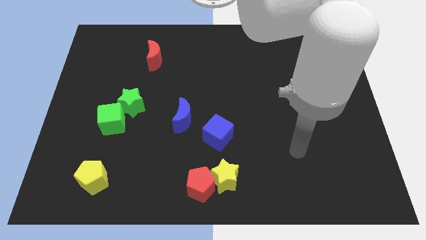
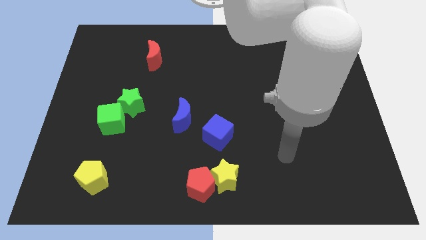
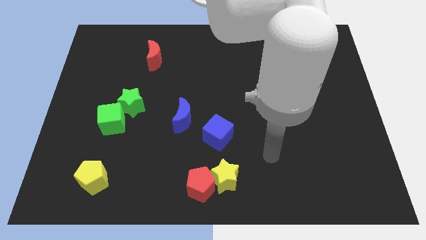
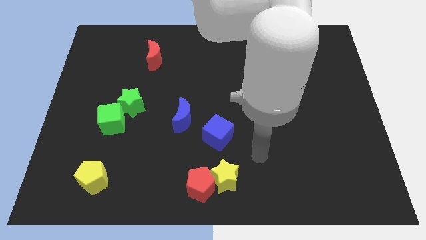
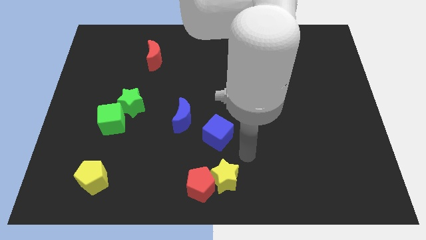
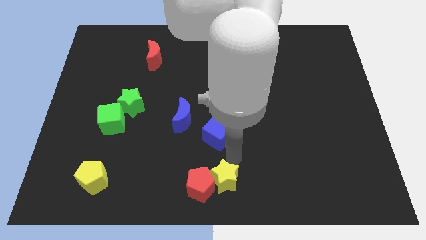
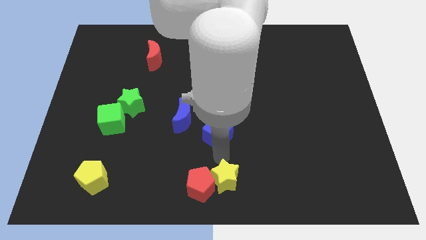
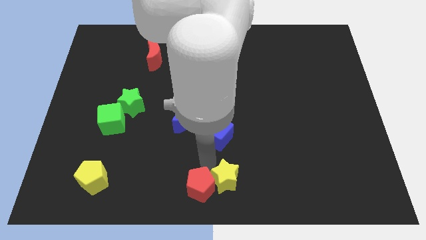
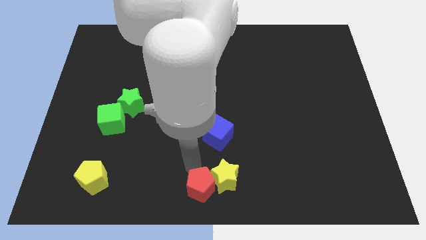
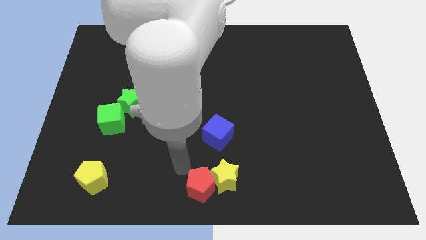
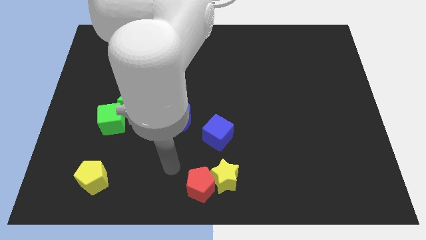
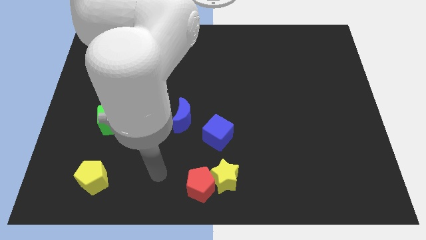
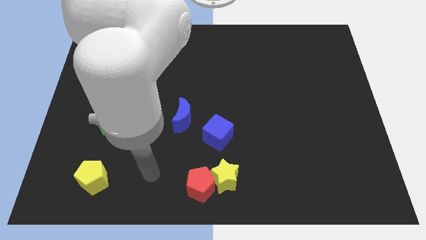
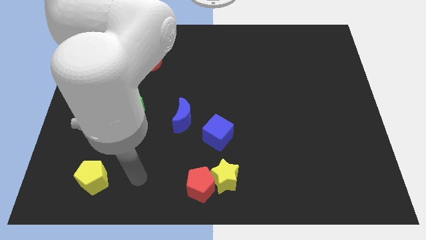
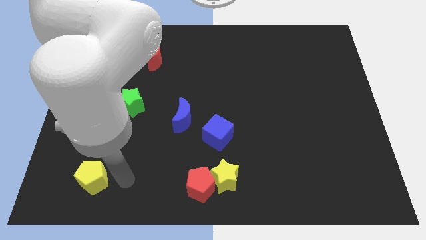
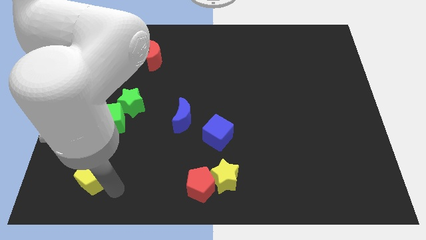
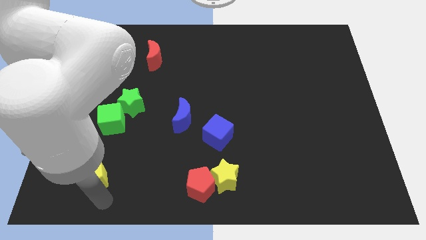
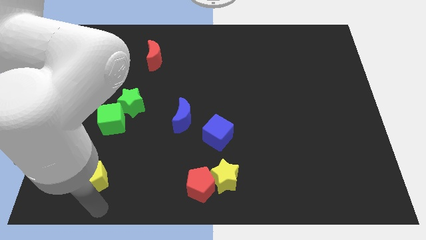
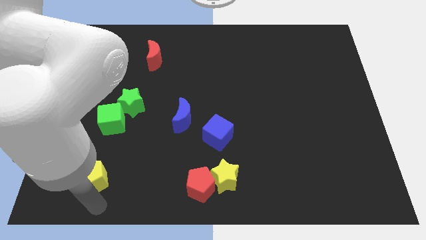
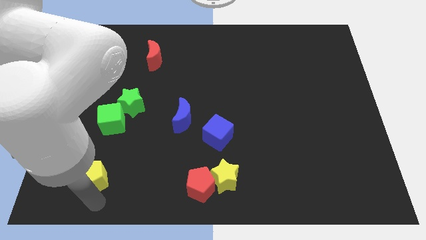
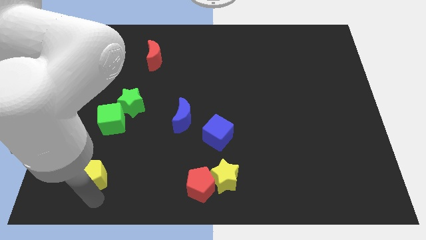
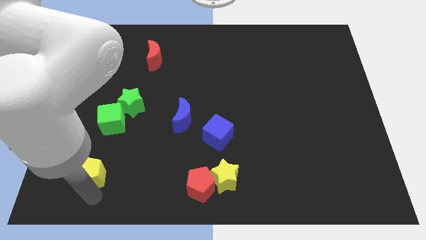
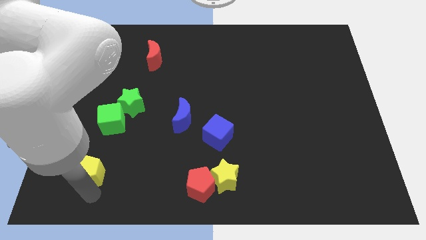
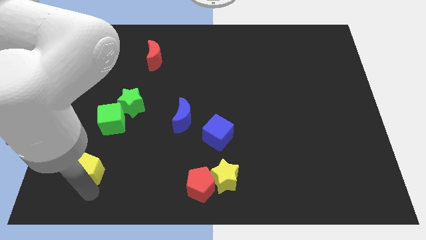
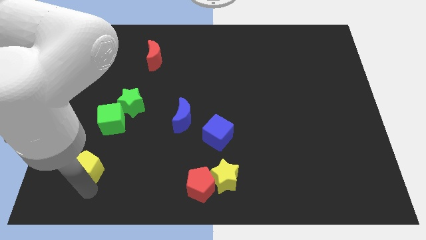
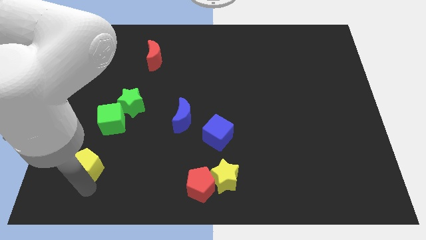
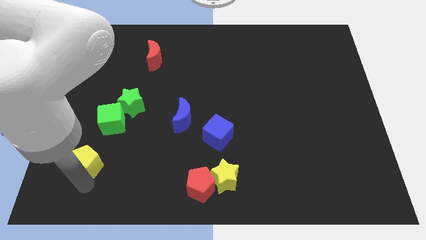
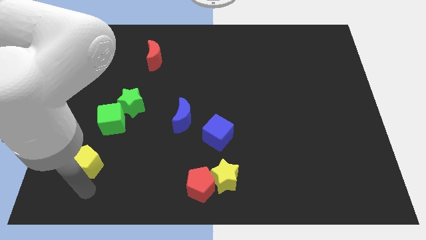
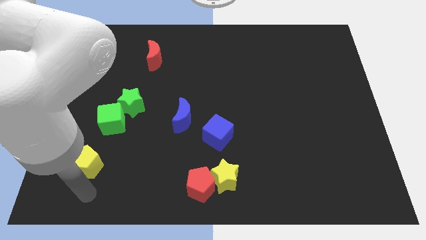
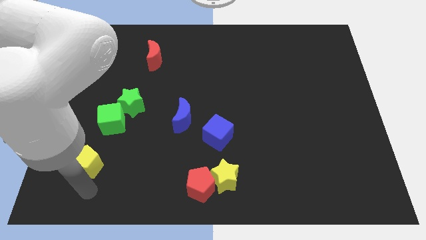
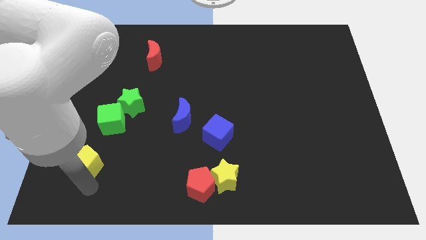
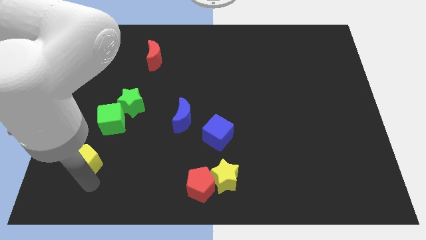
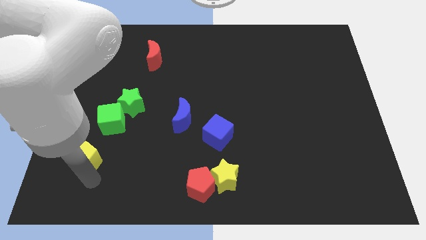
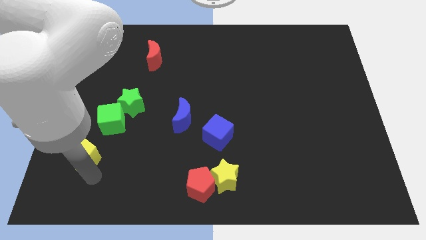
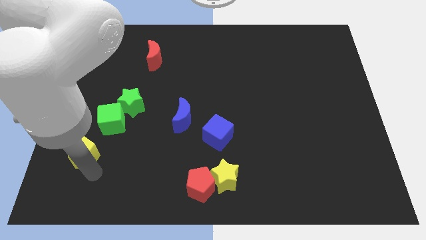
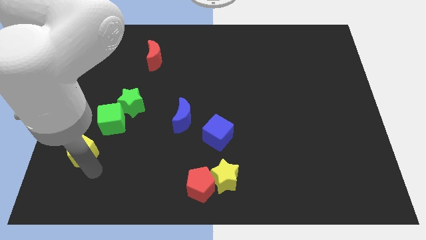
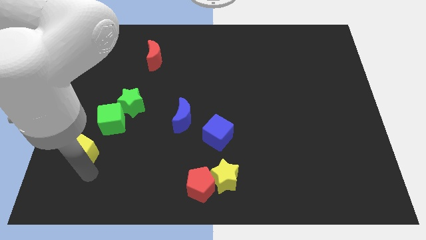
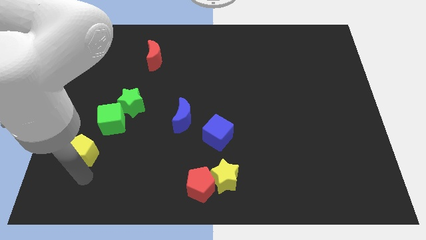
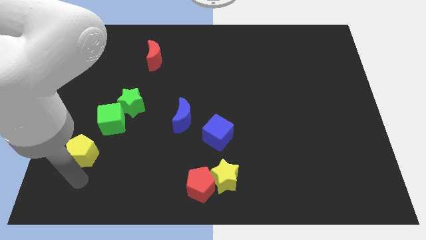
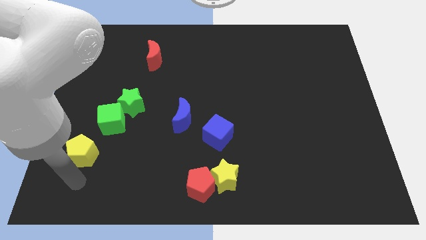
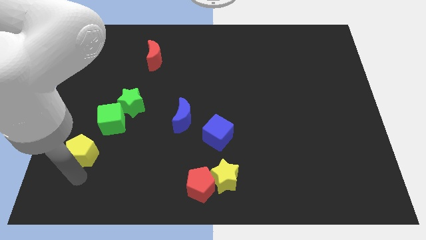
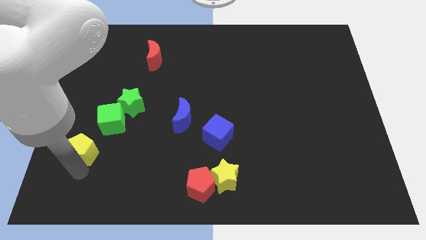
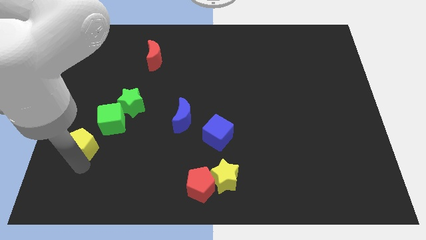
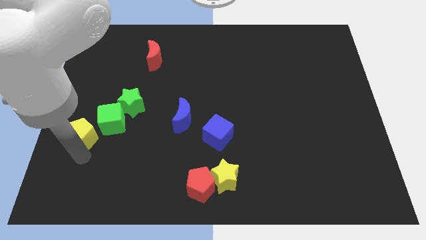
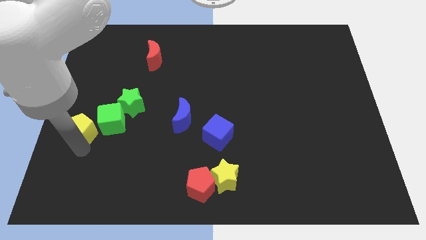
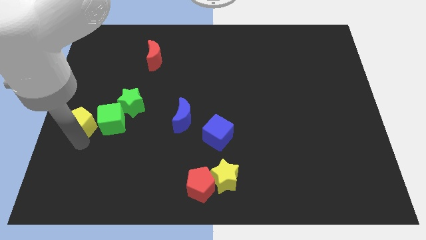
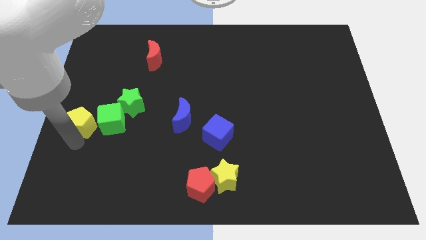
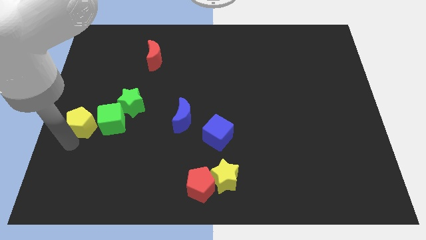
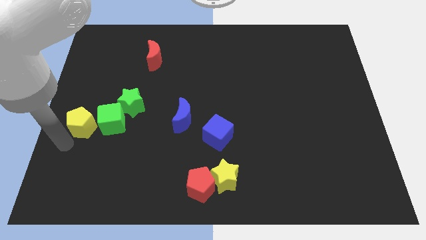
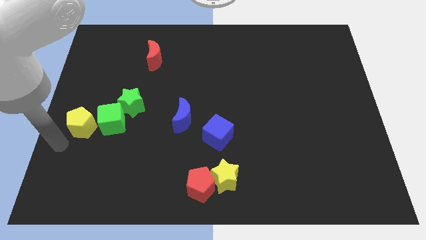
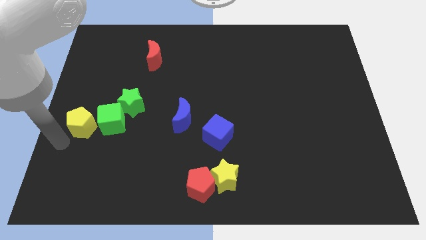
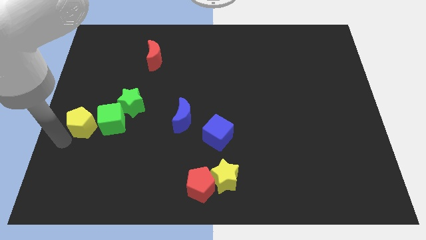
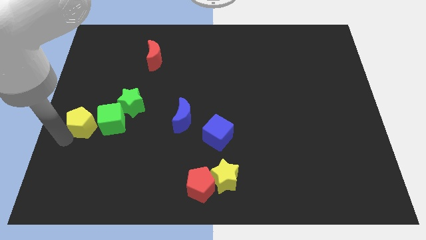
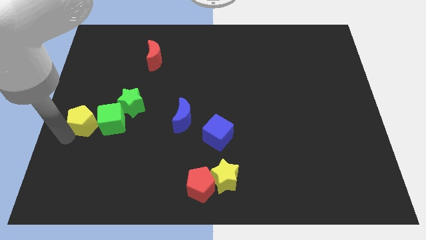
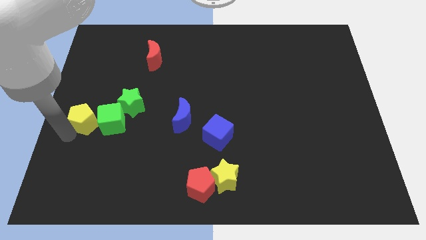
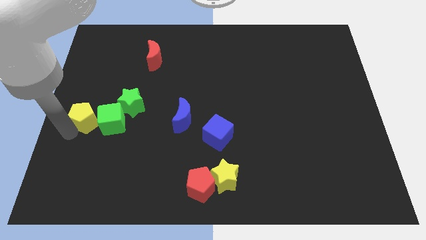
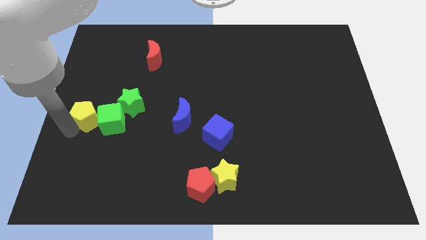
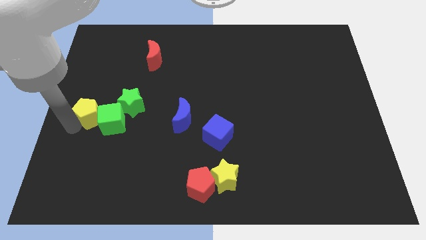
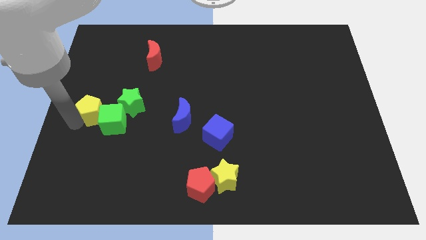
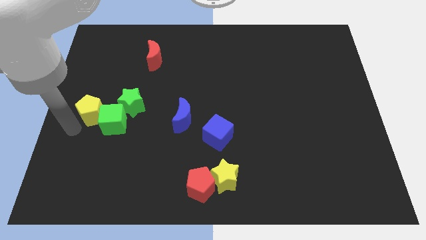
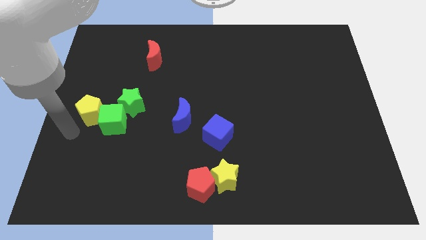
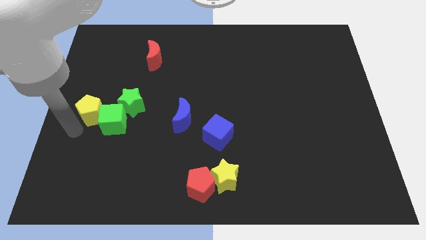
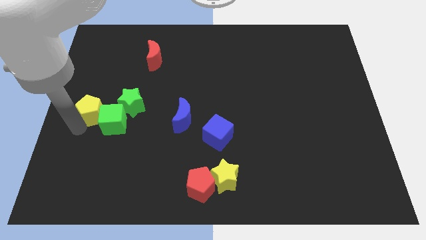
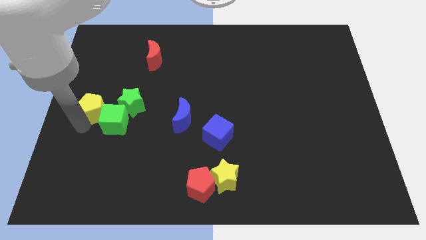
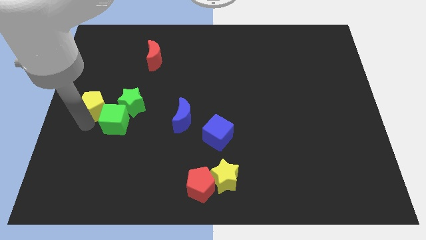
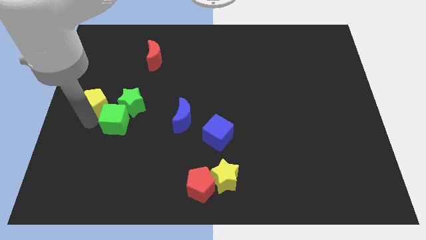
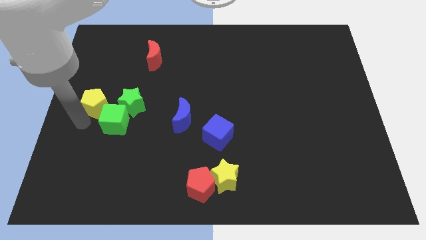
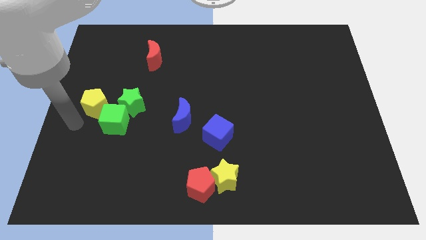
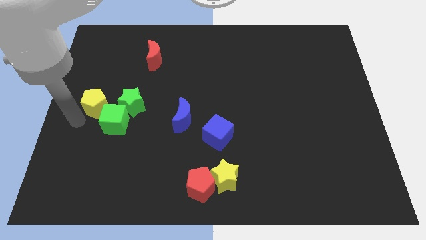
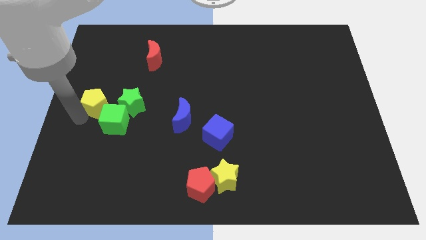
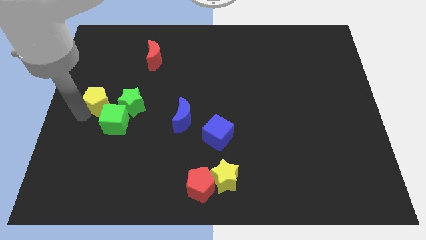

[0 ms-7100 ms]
put the yellow pentagon to the top of the green cube
